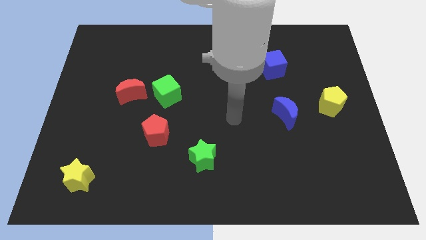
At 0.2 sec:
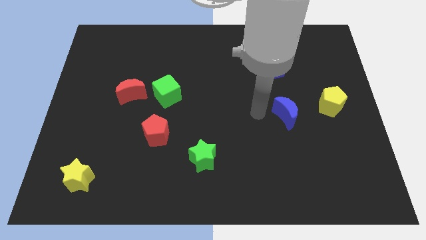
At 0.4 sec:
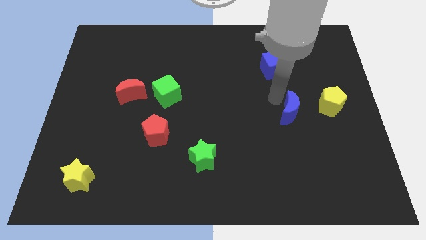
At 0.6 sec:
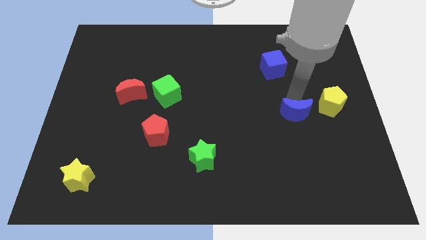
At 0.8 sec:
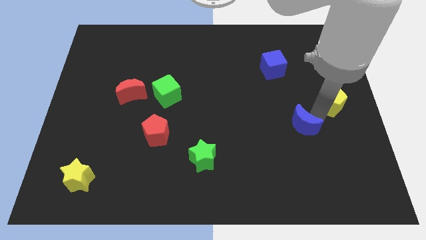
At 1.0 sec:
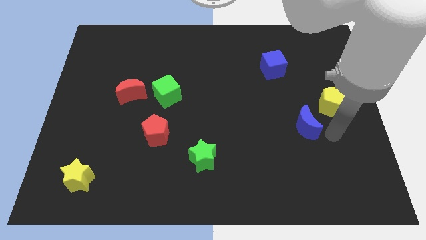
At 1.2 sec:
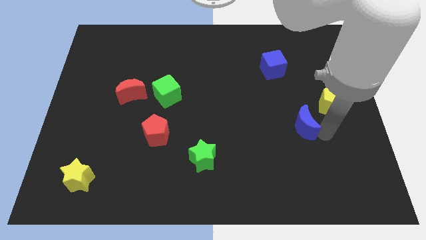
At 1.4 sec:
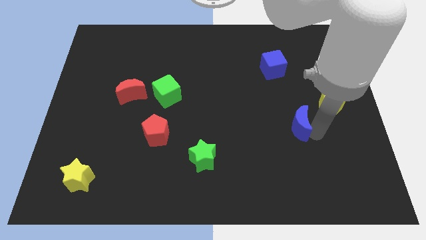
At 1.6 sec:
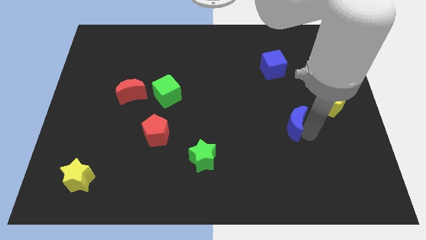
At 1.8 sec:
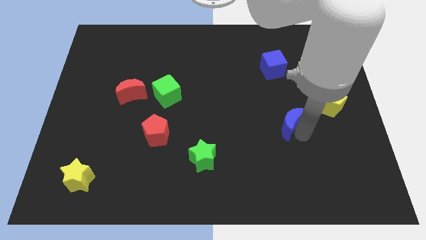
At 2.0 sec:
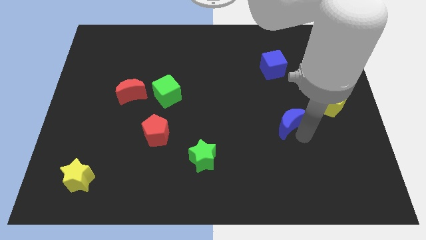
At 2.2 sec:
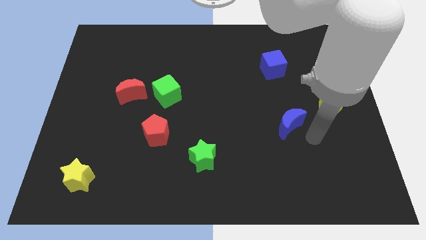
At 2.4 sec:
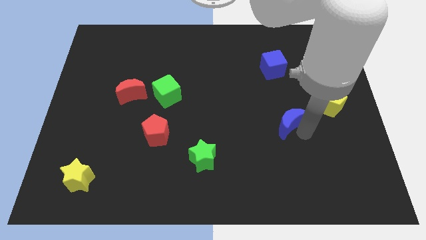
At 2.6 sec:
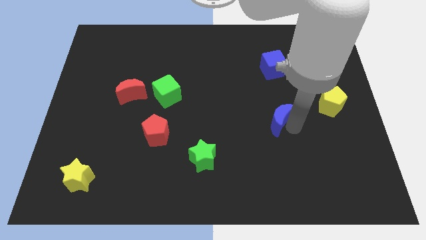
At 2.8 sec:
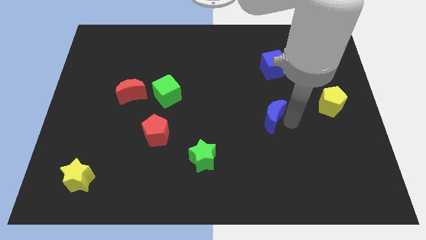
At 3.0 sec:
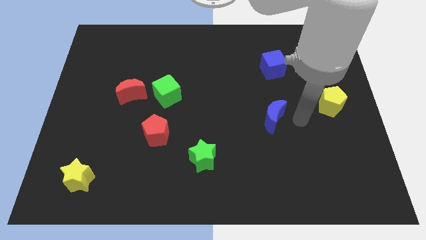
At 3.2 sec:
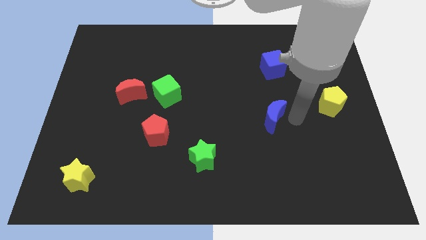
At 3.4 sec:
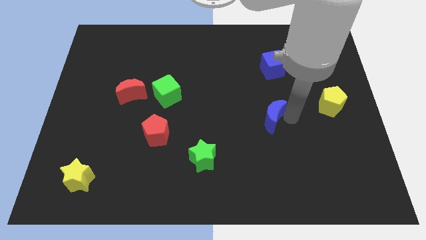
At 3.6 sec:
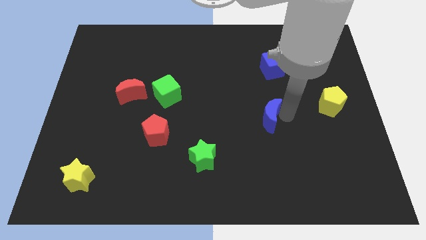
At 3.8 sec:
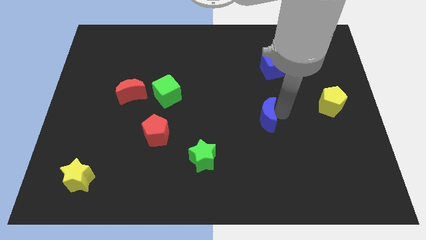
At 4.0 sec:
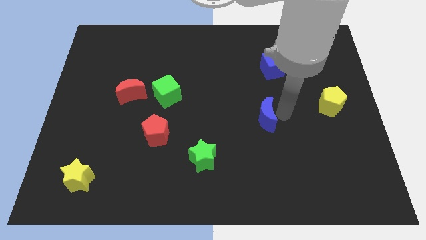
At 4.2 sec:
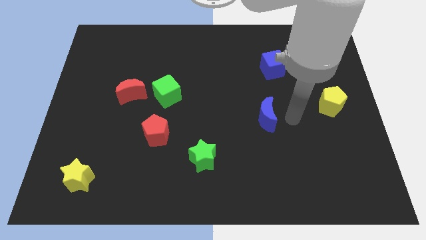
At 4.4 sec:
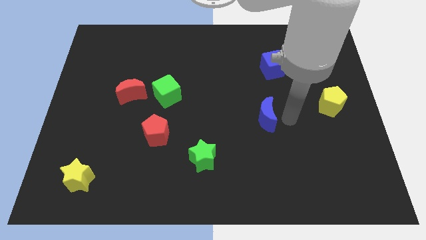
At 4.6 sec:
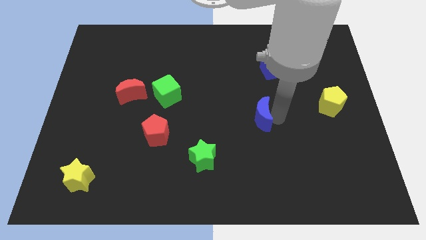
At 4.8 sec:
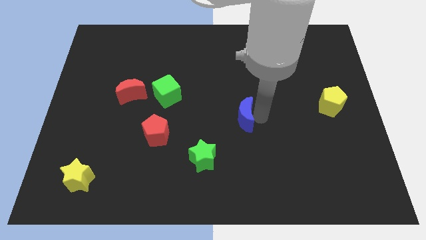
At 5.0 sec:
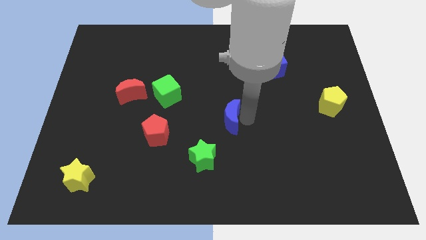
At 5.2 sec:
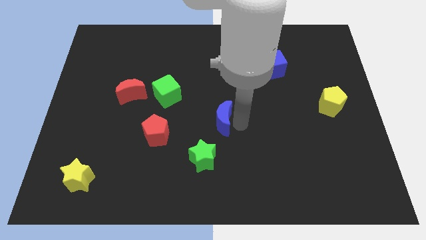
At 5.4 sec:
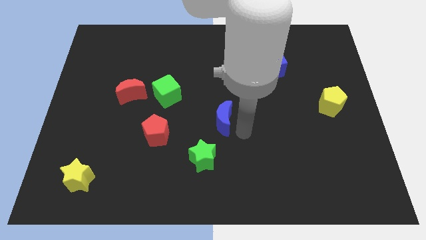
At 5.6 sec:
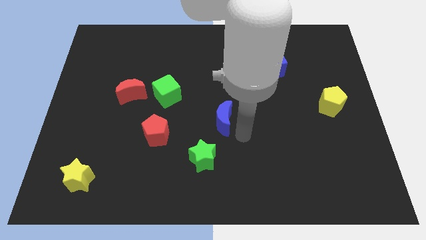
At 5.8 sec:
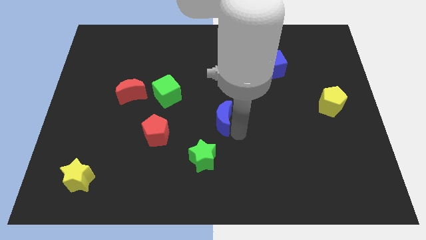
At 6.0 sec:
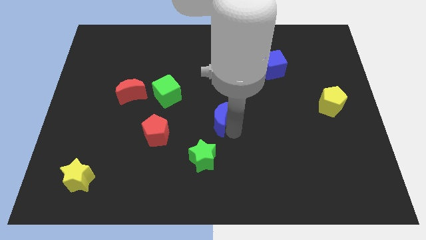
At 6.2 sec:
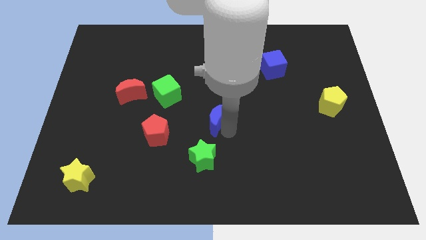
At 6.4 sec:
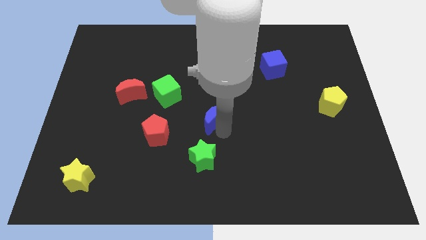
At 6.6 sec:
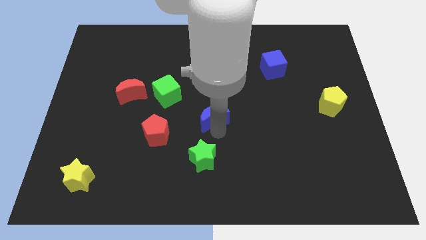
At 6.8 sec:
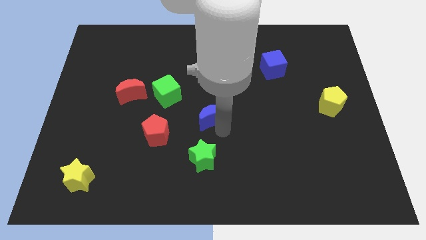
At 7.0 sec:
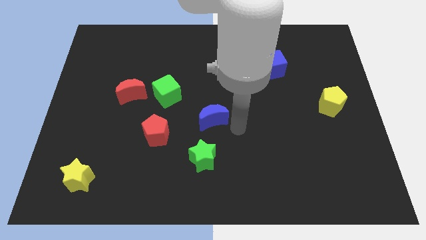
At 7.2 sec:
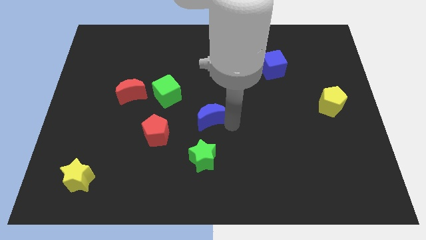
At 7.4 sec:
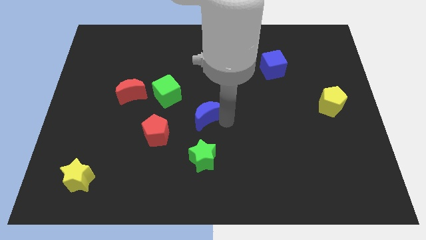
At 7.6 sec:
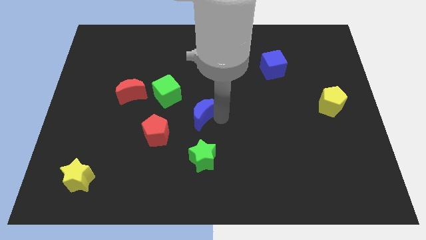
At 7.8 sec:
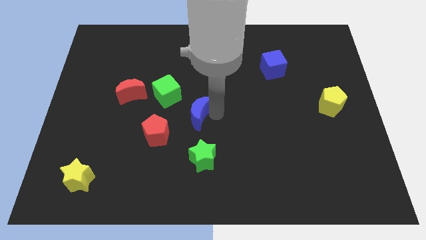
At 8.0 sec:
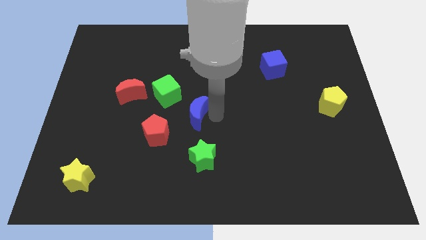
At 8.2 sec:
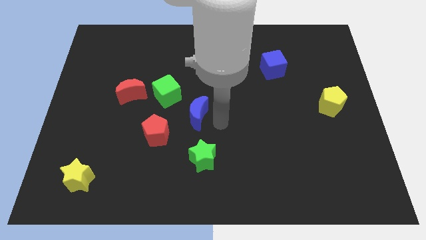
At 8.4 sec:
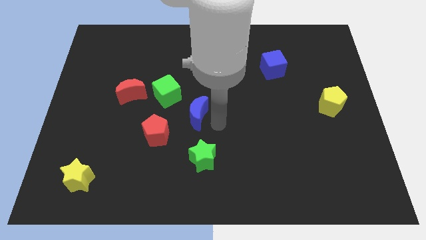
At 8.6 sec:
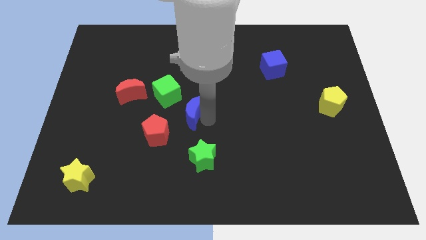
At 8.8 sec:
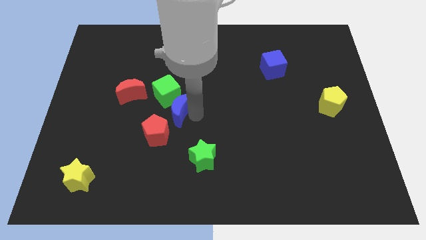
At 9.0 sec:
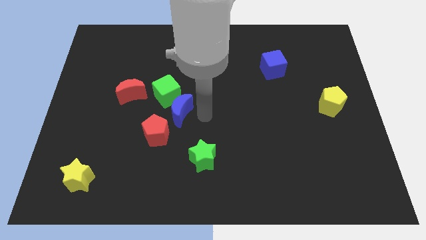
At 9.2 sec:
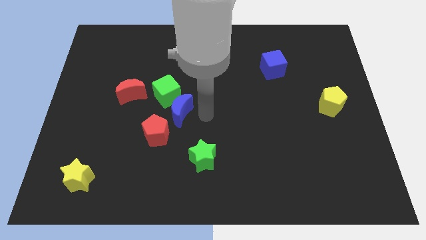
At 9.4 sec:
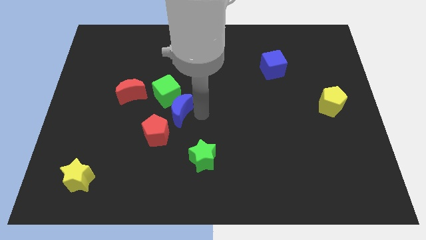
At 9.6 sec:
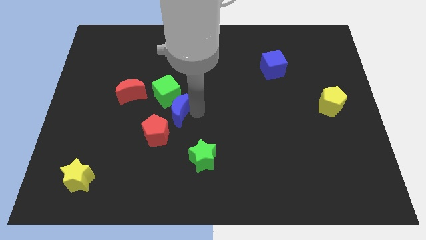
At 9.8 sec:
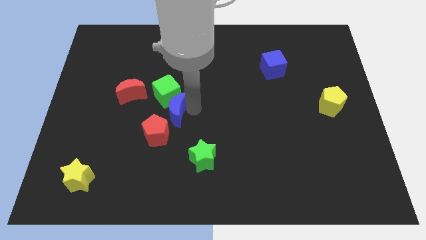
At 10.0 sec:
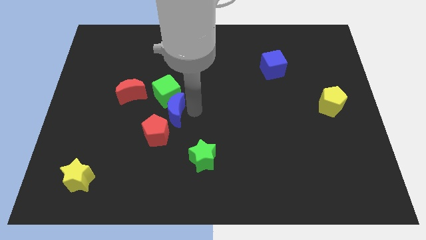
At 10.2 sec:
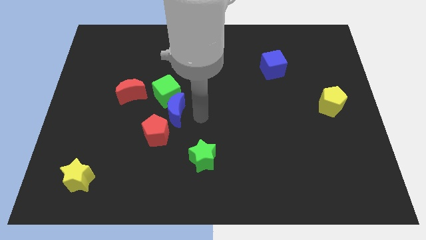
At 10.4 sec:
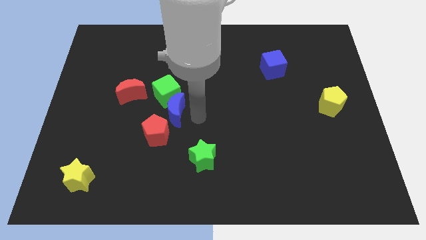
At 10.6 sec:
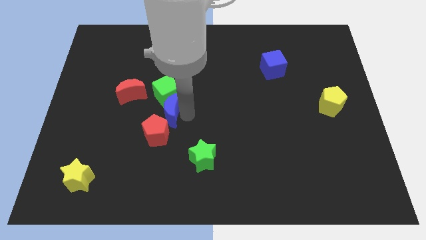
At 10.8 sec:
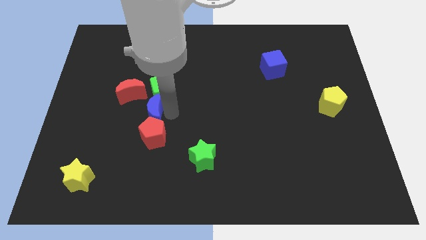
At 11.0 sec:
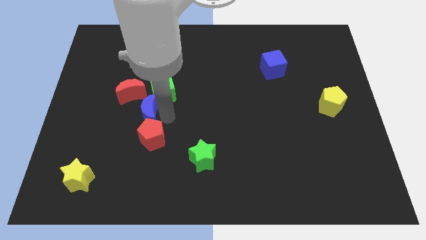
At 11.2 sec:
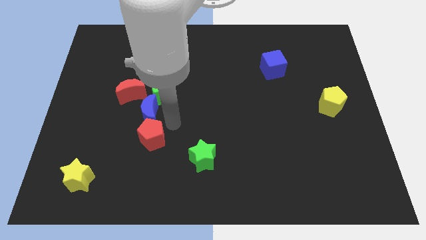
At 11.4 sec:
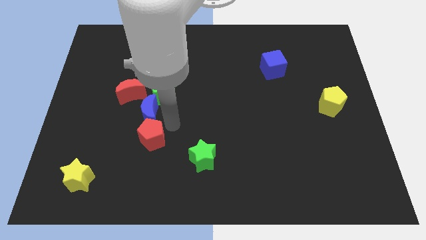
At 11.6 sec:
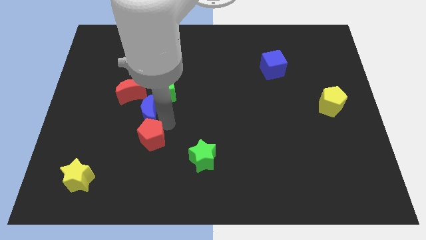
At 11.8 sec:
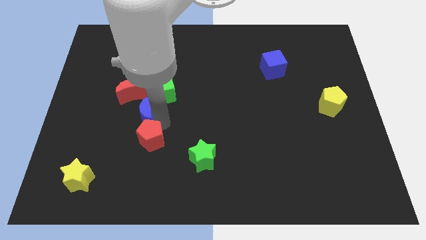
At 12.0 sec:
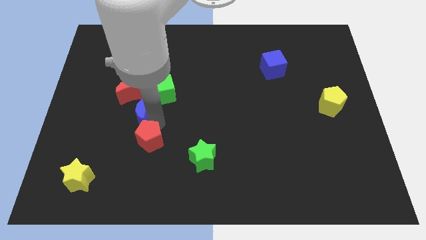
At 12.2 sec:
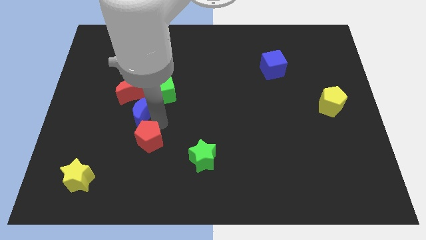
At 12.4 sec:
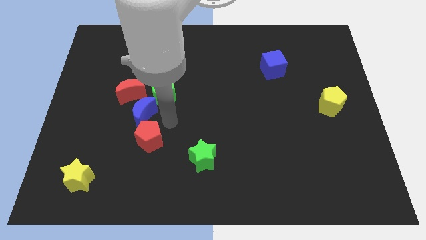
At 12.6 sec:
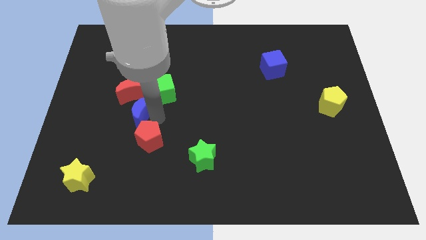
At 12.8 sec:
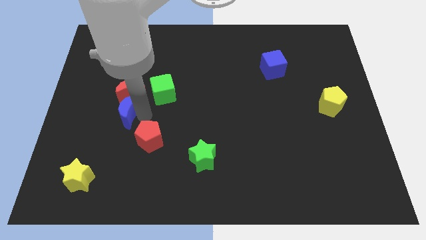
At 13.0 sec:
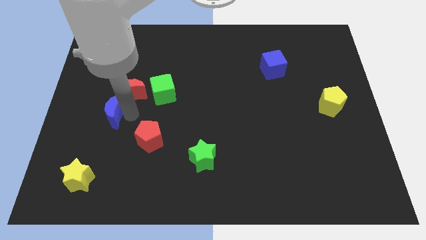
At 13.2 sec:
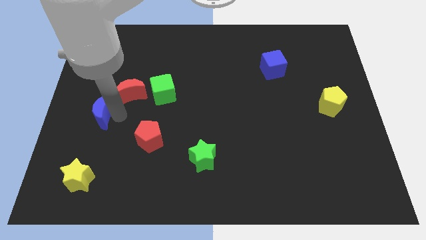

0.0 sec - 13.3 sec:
put the blue moon to the left side
